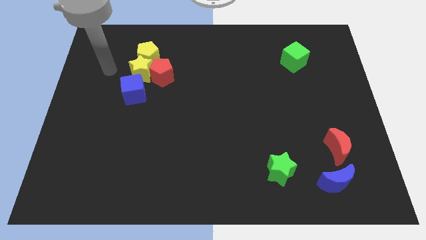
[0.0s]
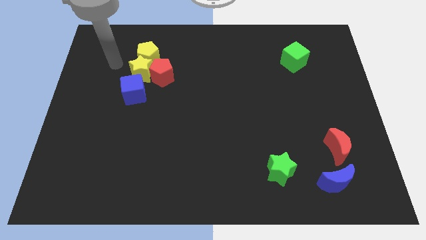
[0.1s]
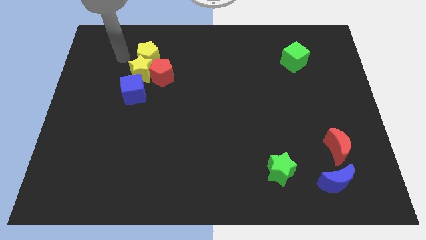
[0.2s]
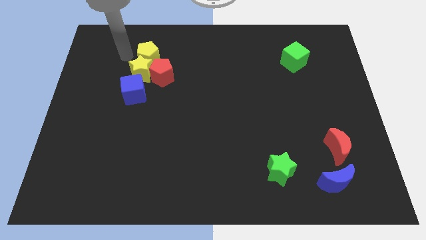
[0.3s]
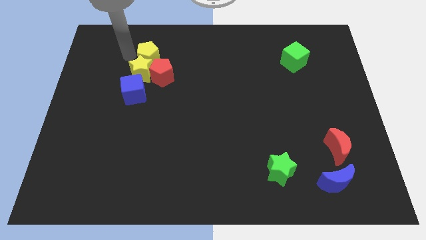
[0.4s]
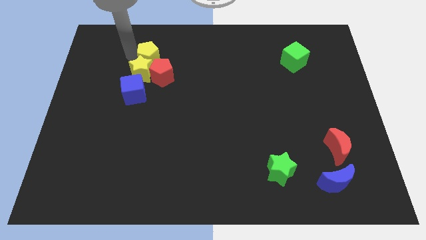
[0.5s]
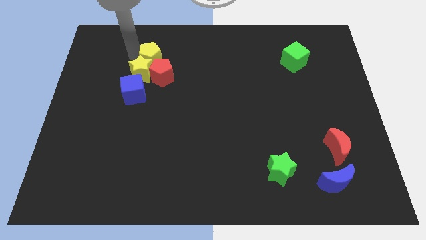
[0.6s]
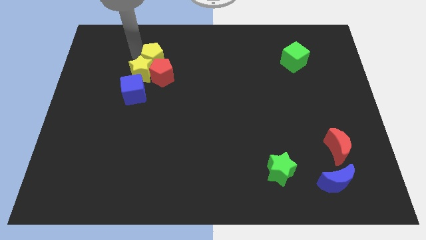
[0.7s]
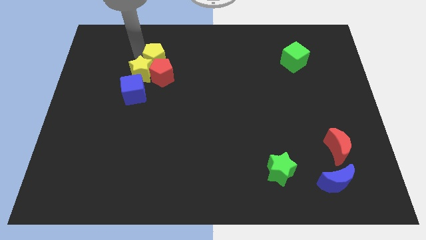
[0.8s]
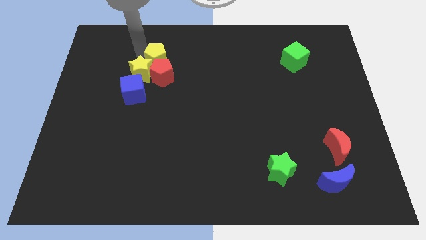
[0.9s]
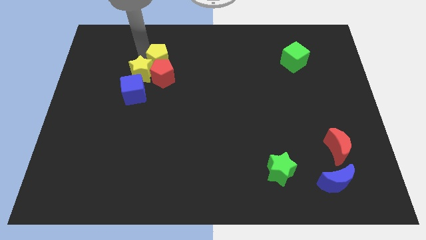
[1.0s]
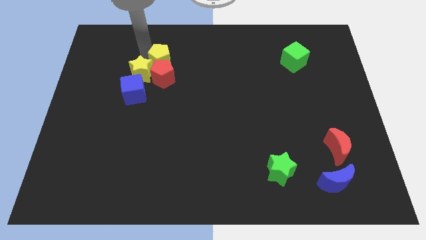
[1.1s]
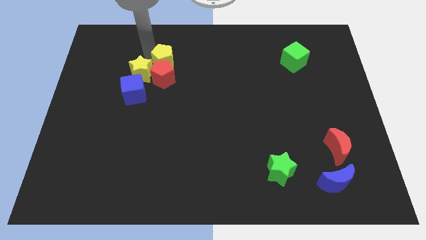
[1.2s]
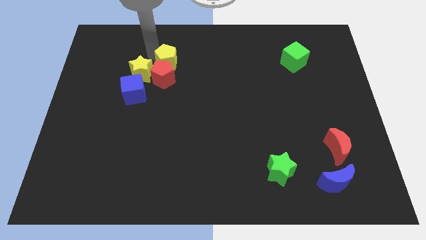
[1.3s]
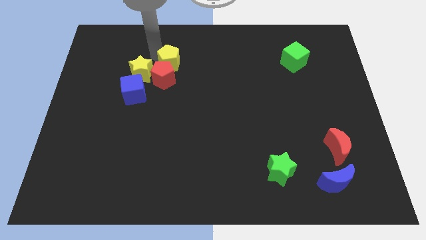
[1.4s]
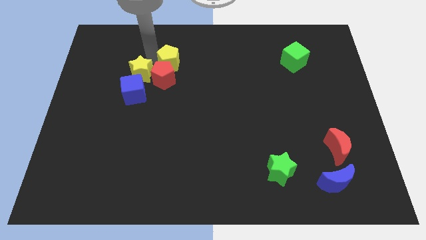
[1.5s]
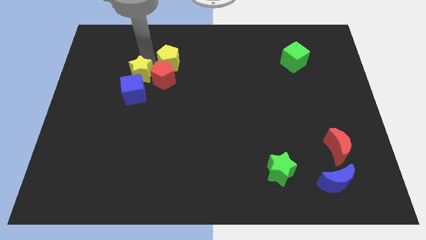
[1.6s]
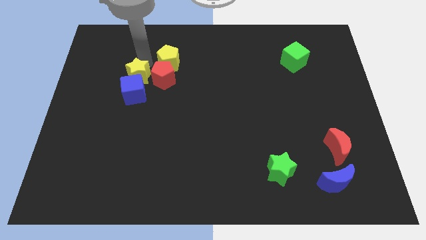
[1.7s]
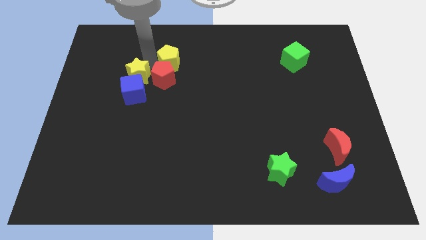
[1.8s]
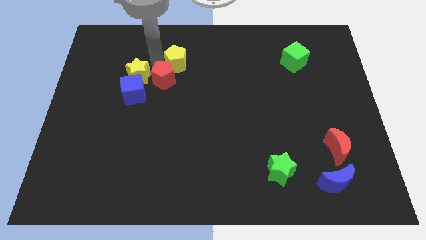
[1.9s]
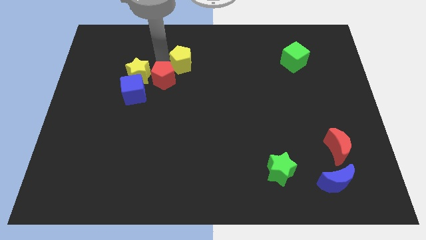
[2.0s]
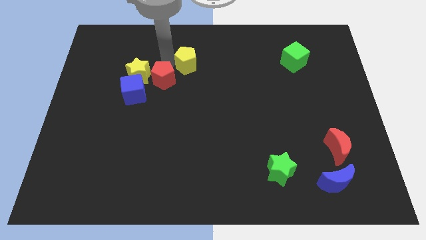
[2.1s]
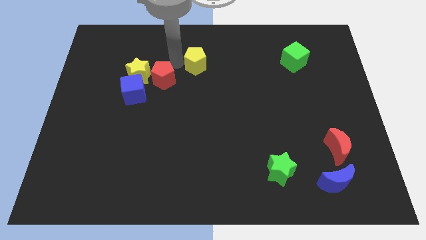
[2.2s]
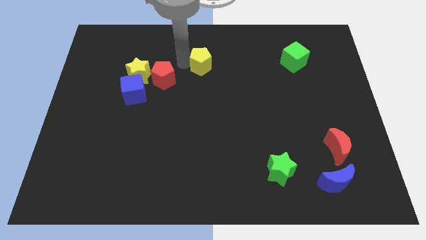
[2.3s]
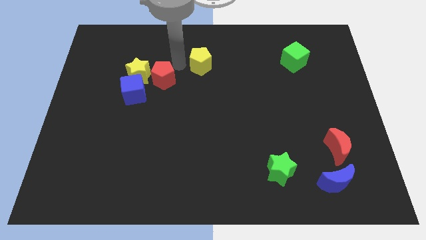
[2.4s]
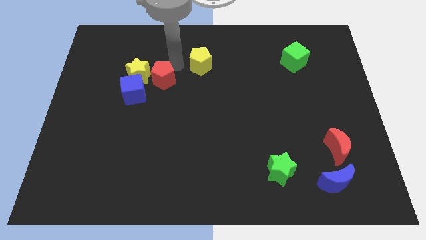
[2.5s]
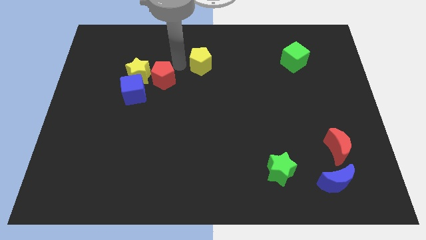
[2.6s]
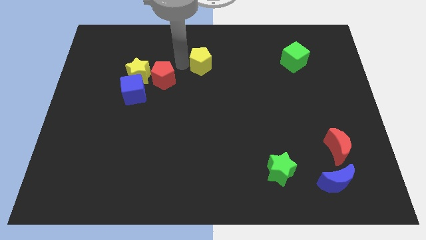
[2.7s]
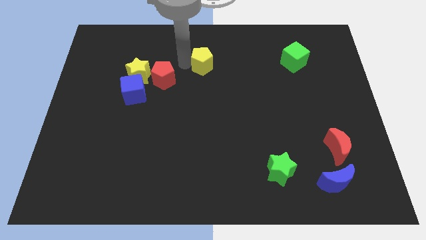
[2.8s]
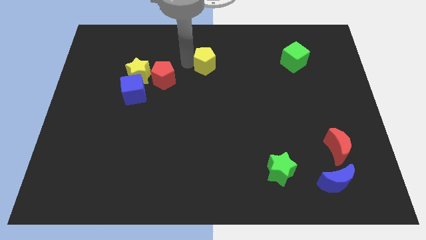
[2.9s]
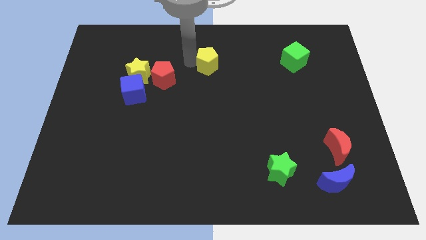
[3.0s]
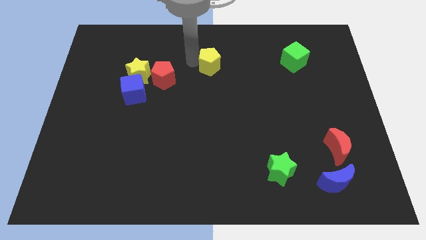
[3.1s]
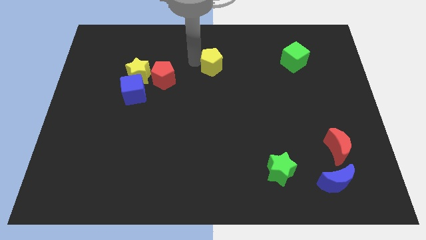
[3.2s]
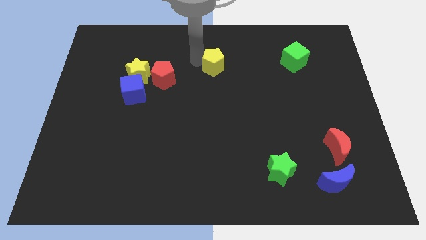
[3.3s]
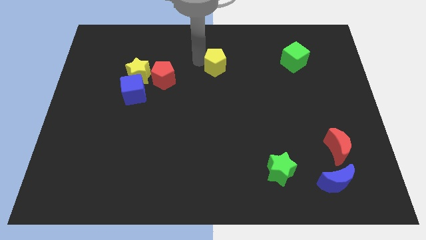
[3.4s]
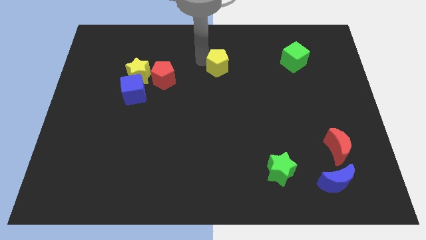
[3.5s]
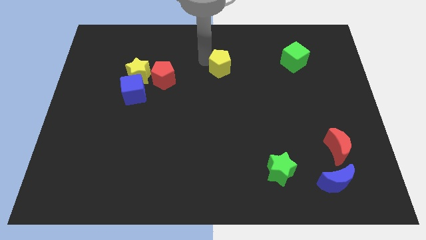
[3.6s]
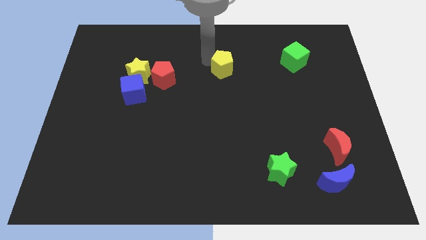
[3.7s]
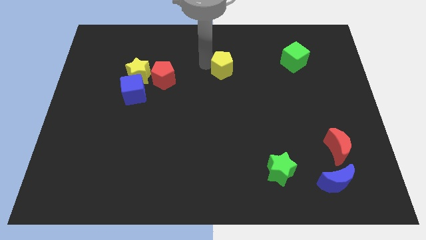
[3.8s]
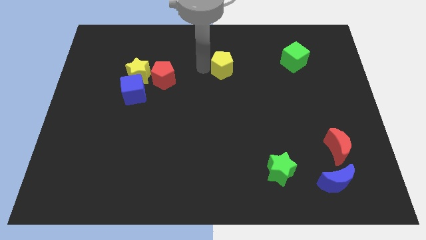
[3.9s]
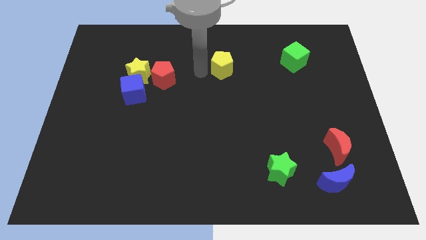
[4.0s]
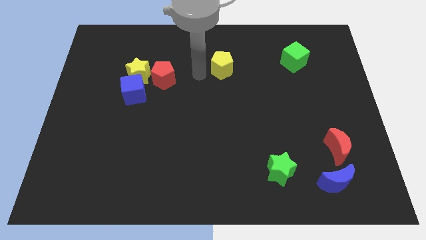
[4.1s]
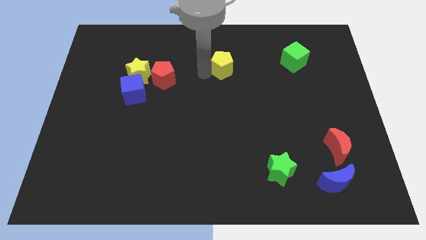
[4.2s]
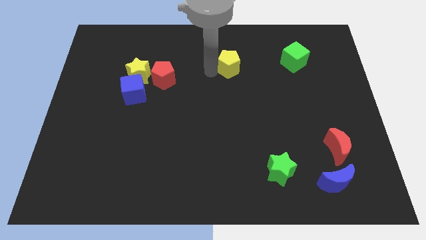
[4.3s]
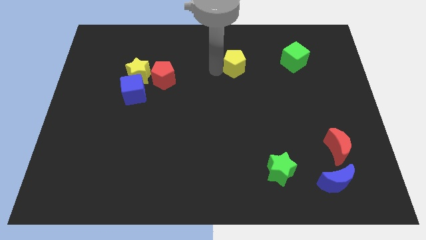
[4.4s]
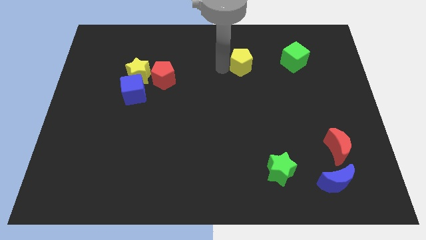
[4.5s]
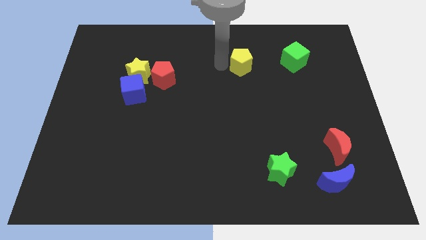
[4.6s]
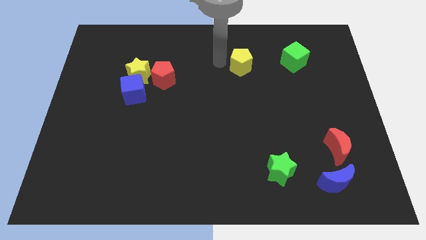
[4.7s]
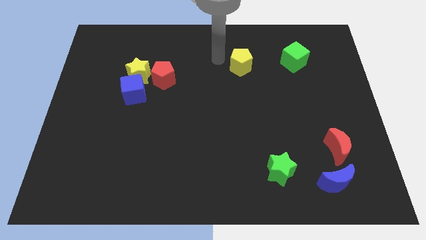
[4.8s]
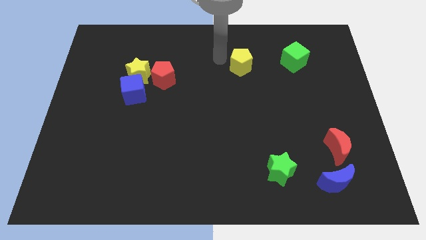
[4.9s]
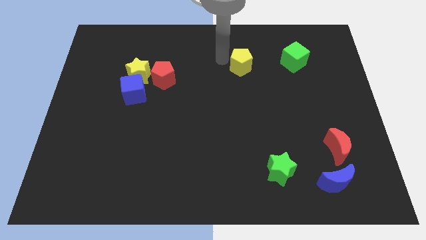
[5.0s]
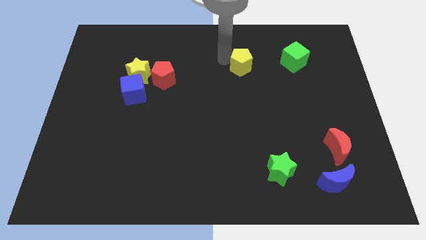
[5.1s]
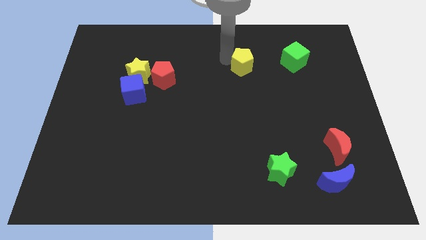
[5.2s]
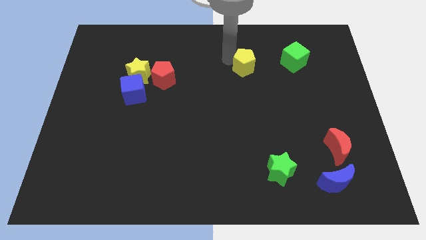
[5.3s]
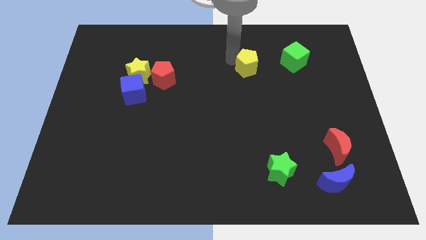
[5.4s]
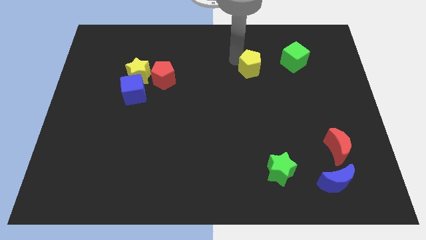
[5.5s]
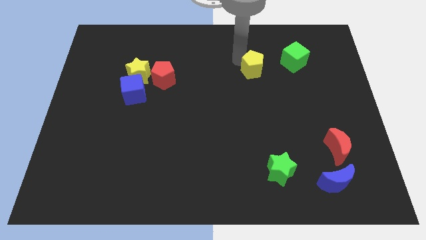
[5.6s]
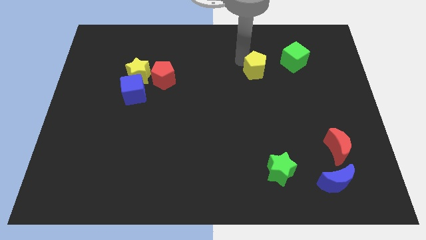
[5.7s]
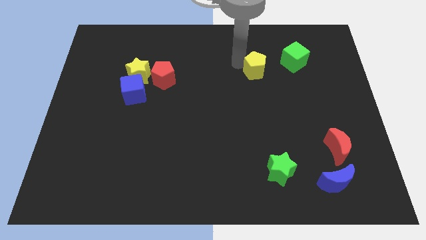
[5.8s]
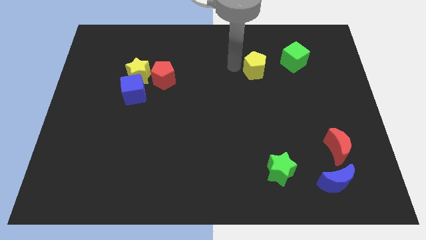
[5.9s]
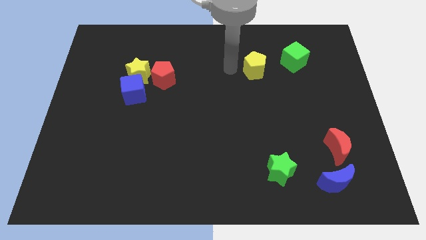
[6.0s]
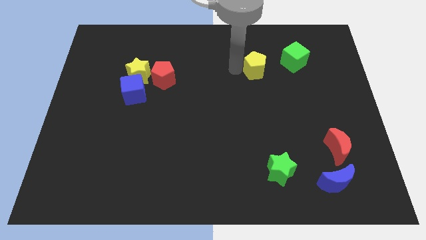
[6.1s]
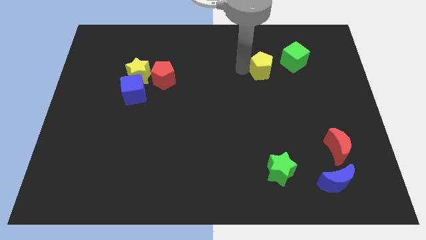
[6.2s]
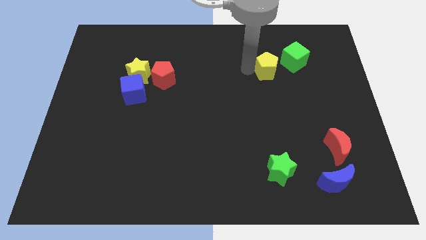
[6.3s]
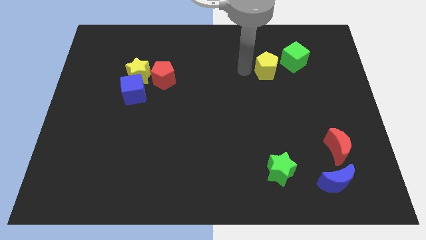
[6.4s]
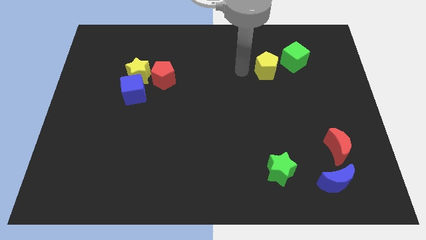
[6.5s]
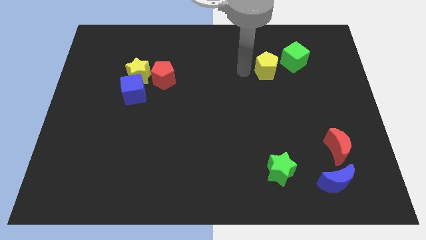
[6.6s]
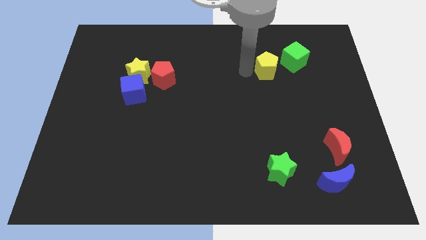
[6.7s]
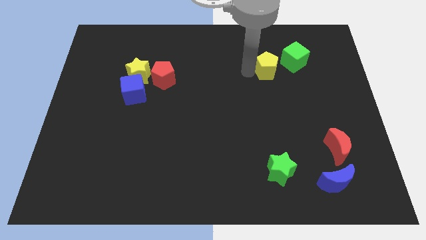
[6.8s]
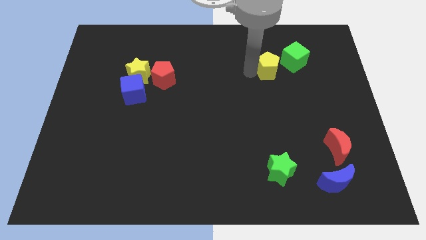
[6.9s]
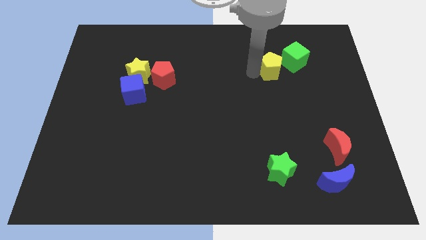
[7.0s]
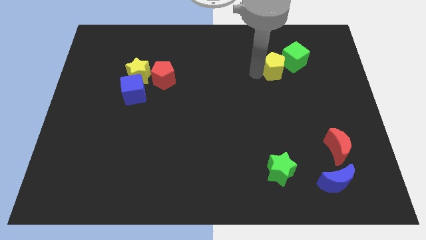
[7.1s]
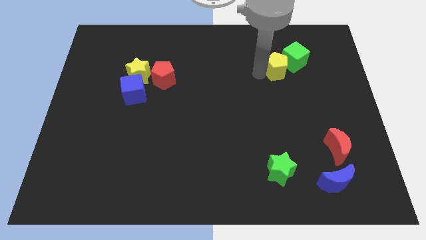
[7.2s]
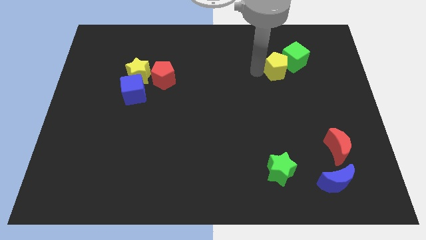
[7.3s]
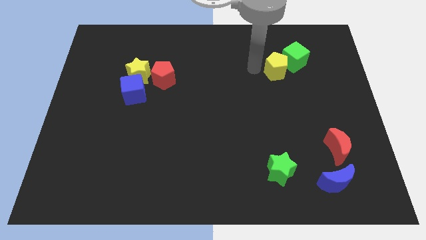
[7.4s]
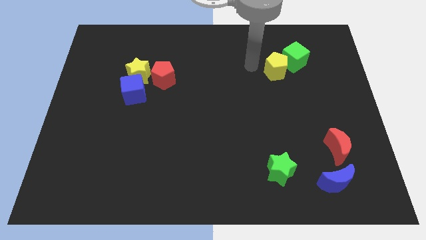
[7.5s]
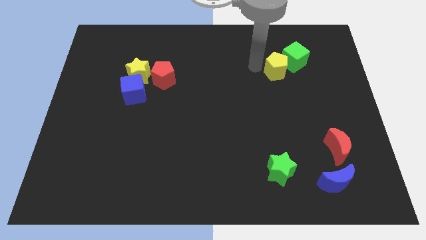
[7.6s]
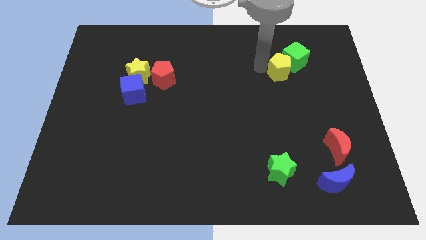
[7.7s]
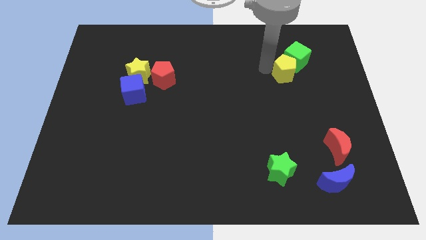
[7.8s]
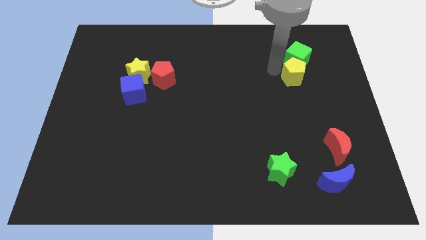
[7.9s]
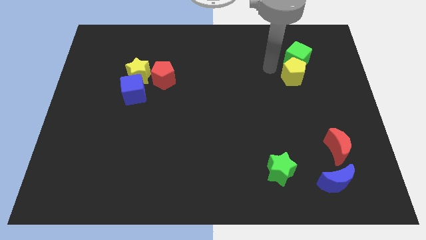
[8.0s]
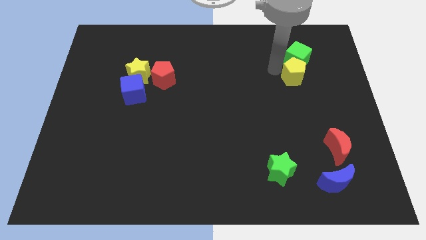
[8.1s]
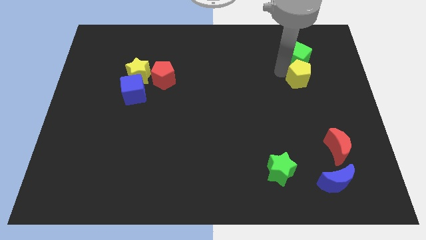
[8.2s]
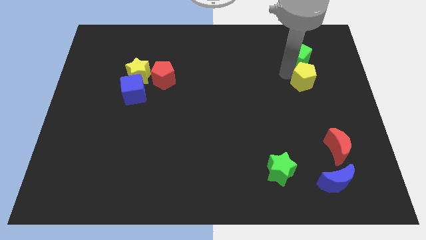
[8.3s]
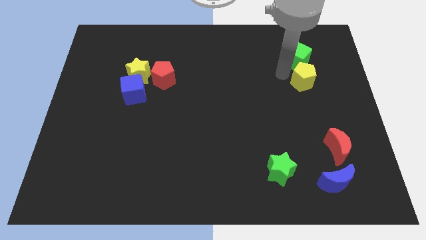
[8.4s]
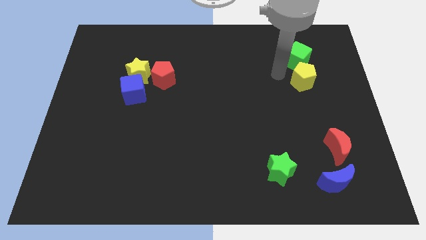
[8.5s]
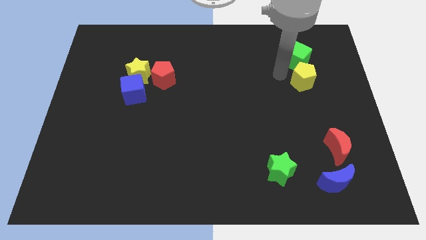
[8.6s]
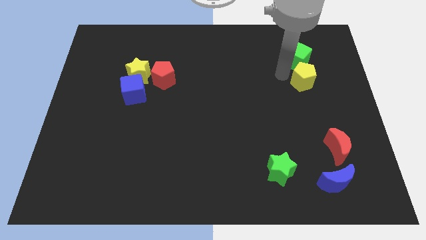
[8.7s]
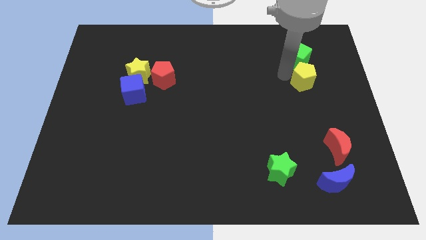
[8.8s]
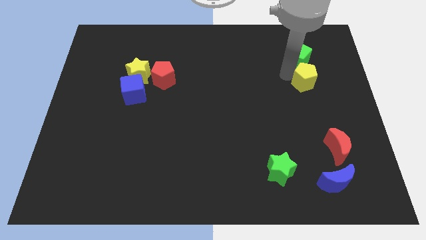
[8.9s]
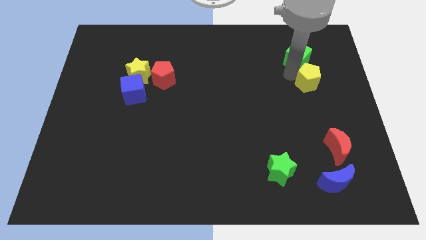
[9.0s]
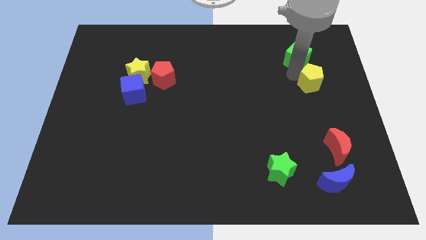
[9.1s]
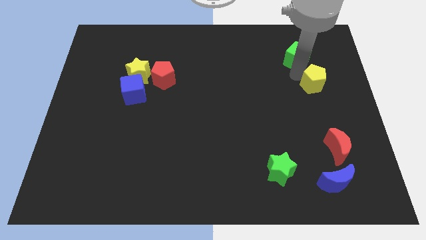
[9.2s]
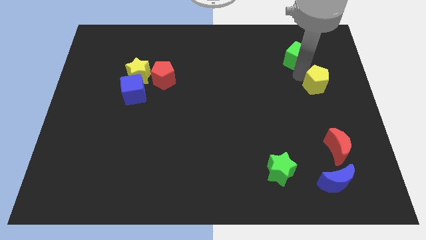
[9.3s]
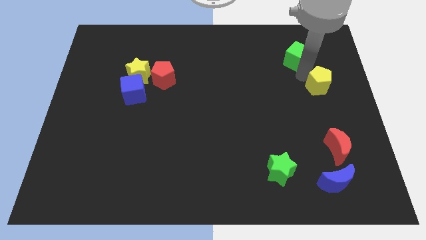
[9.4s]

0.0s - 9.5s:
put the yellow pentagon to the right side
